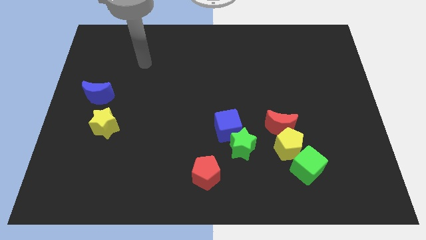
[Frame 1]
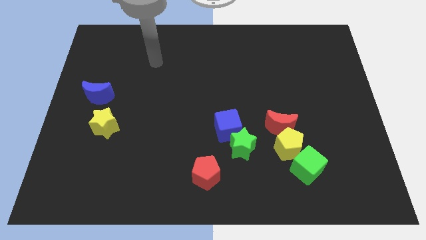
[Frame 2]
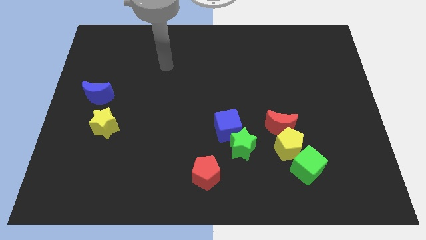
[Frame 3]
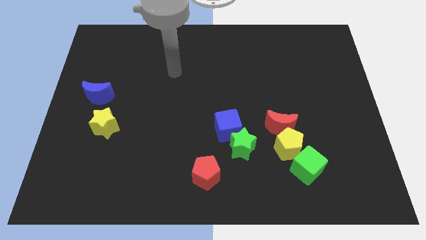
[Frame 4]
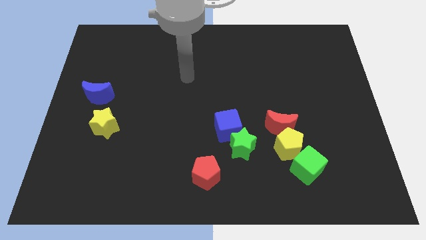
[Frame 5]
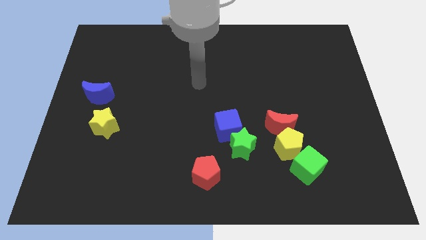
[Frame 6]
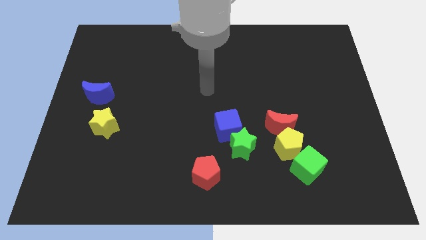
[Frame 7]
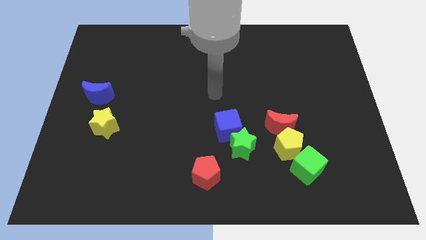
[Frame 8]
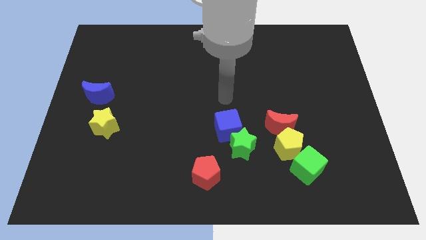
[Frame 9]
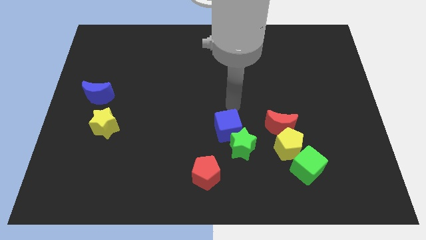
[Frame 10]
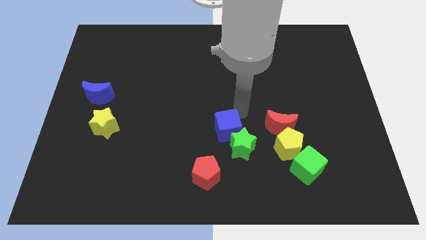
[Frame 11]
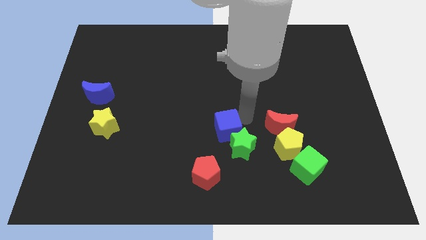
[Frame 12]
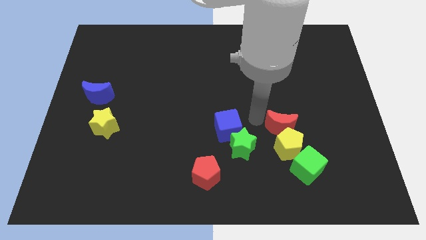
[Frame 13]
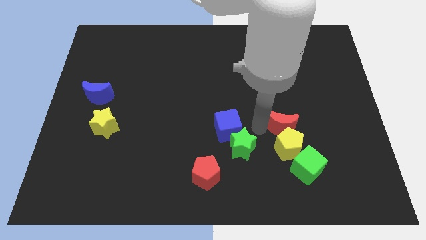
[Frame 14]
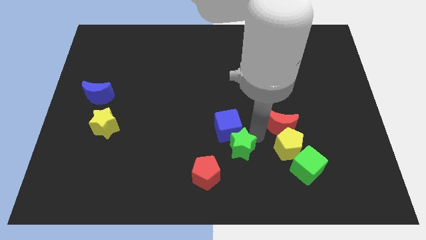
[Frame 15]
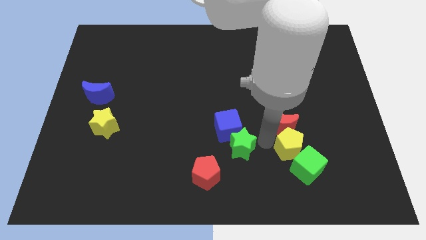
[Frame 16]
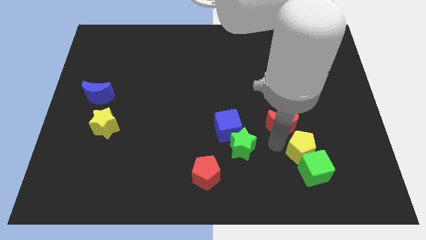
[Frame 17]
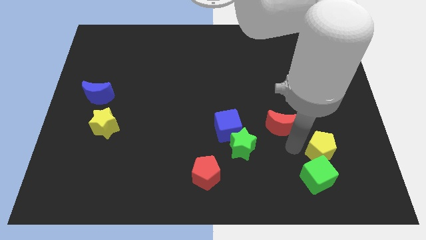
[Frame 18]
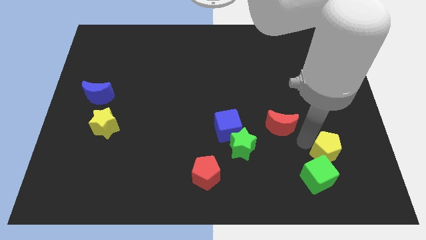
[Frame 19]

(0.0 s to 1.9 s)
pull the red moon apart from the yellow pentagon

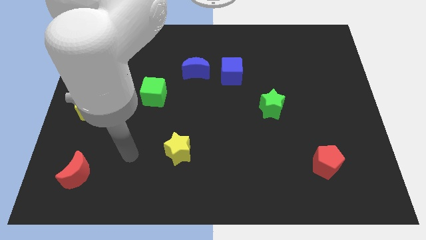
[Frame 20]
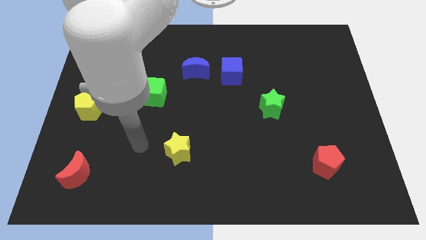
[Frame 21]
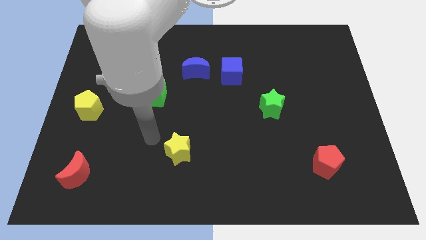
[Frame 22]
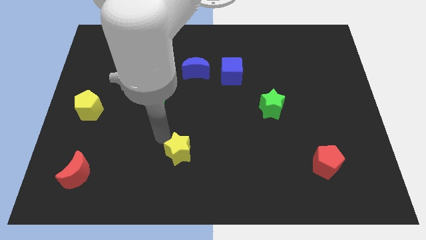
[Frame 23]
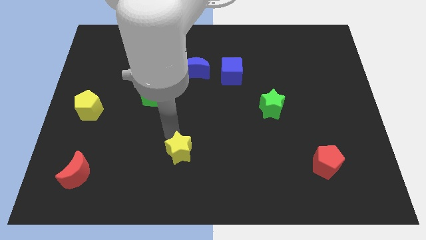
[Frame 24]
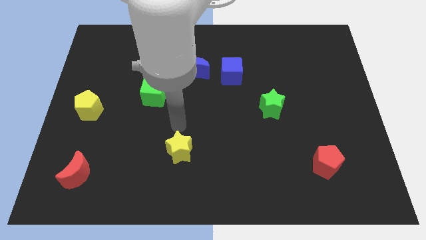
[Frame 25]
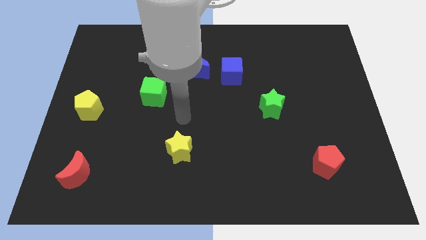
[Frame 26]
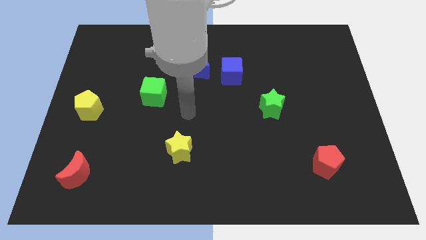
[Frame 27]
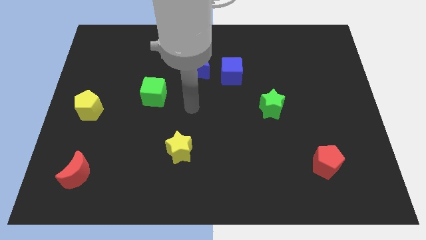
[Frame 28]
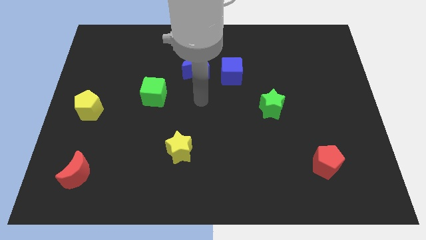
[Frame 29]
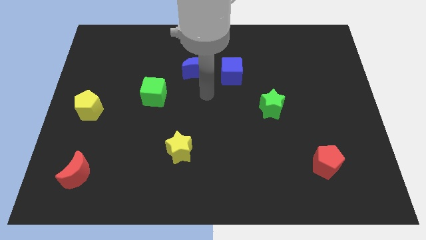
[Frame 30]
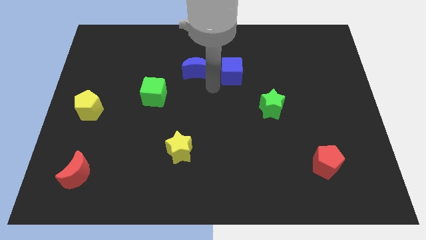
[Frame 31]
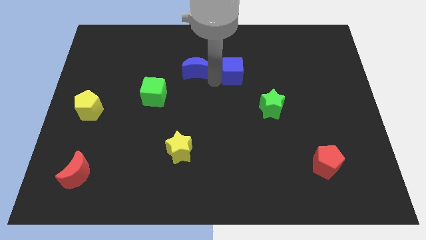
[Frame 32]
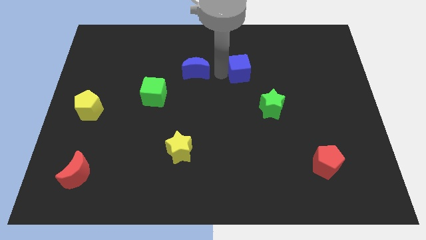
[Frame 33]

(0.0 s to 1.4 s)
separate the blue moon from the blue cube

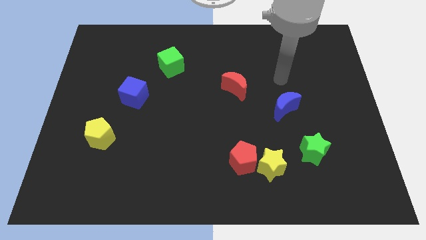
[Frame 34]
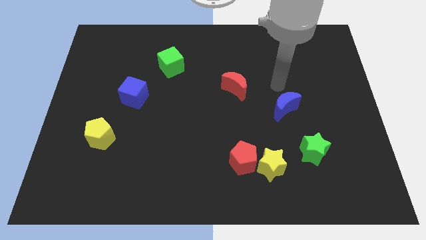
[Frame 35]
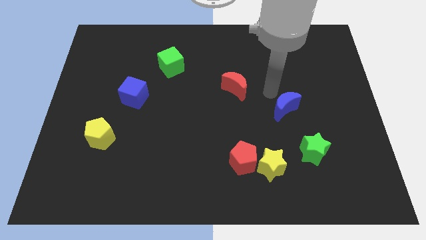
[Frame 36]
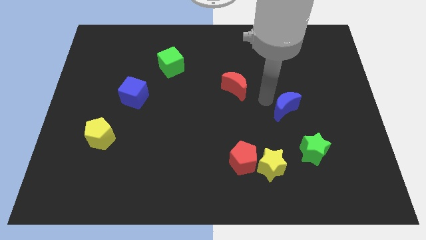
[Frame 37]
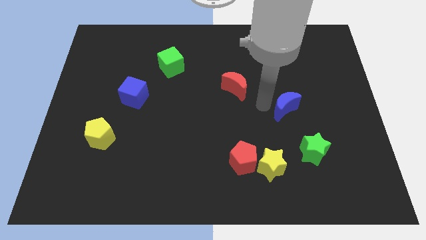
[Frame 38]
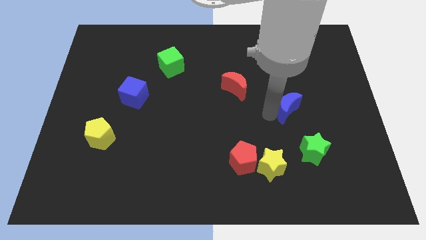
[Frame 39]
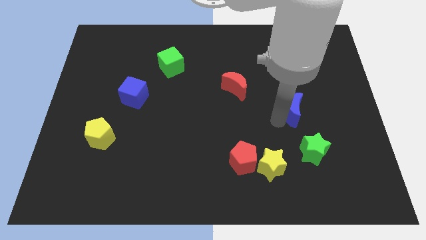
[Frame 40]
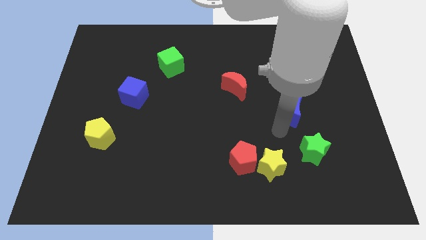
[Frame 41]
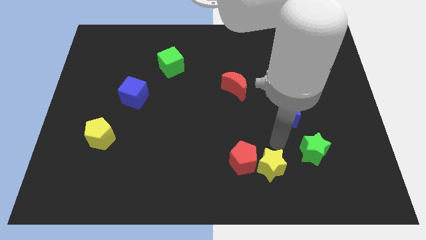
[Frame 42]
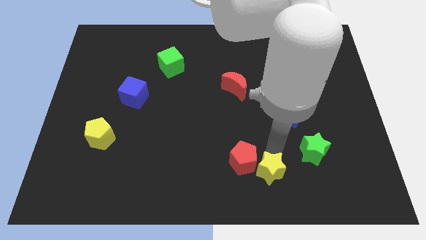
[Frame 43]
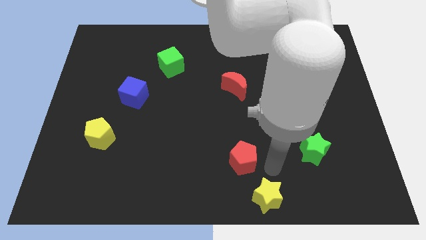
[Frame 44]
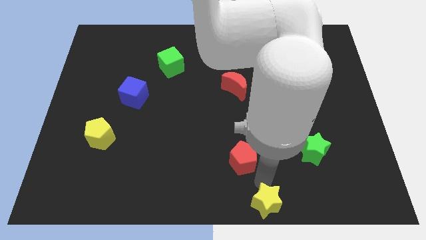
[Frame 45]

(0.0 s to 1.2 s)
pull the red pentagon apart from the yellow star

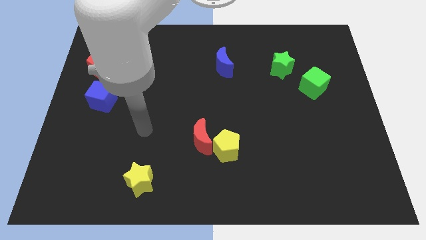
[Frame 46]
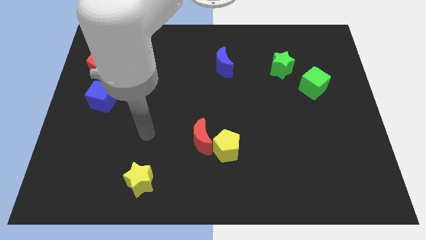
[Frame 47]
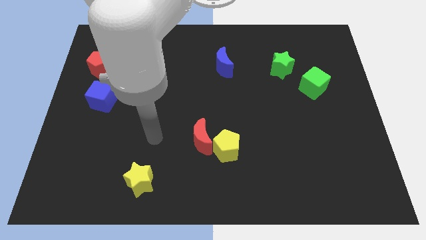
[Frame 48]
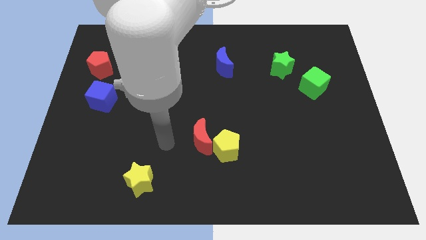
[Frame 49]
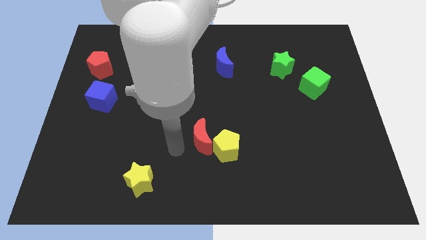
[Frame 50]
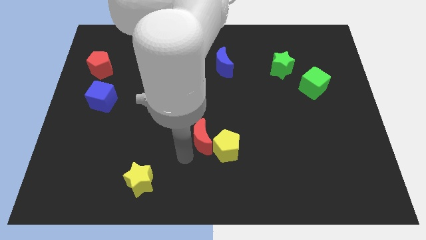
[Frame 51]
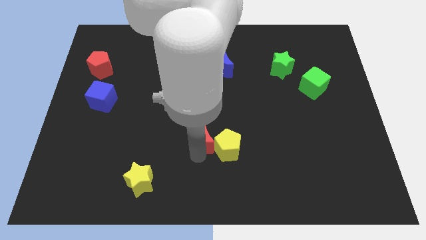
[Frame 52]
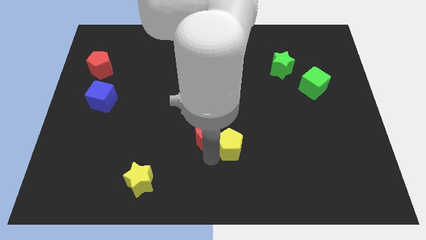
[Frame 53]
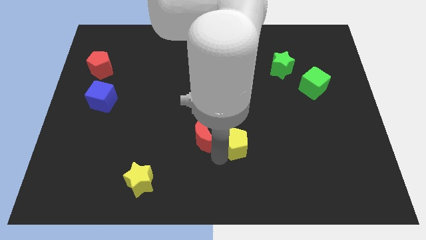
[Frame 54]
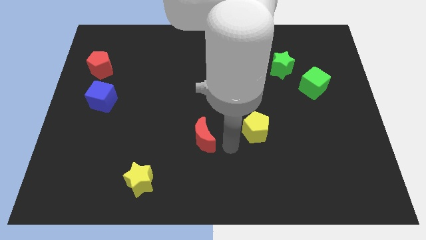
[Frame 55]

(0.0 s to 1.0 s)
separate the red moon from the yellow pentagon

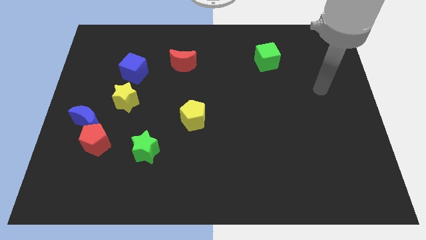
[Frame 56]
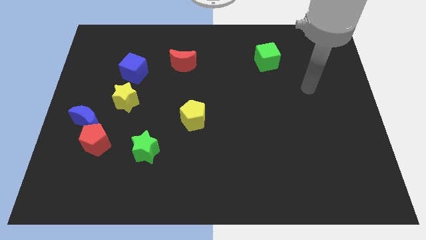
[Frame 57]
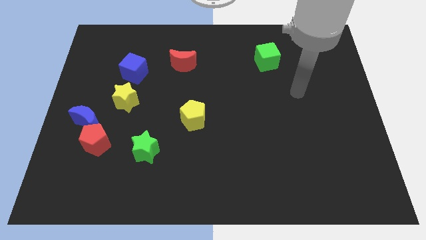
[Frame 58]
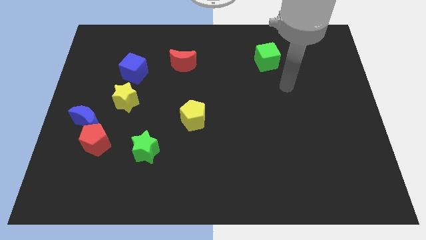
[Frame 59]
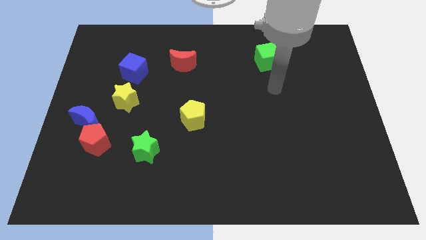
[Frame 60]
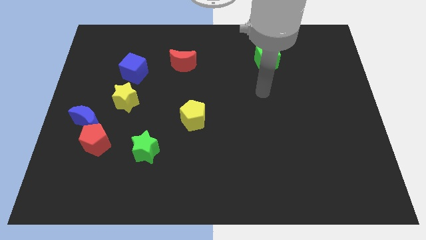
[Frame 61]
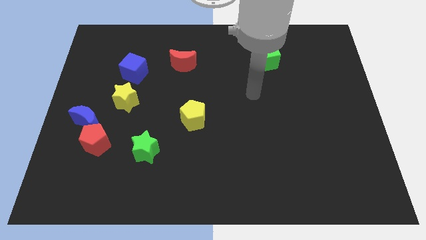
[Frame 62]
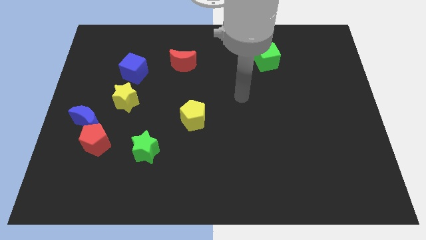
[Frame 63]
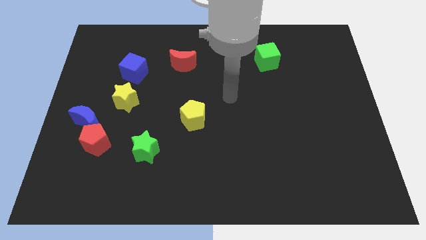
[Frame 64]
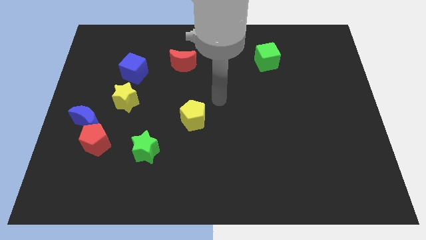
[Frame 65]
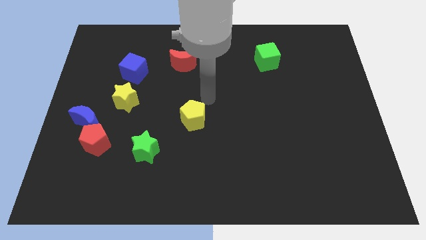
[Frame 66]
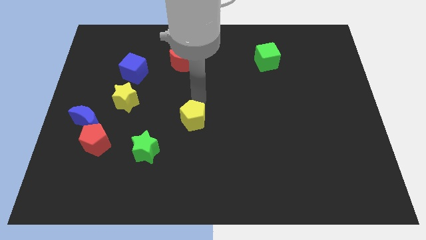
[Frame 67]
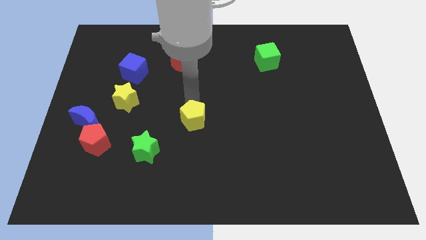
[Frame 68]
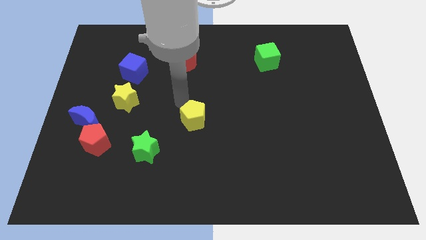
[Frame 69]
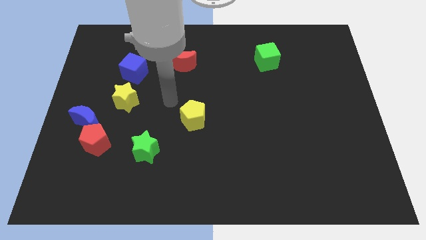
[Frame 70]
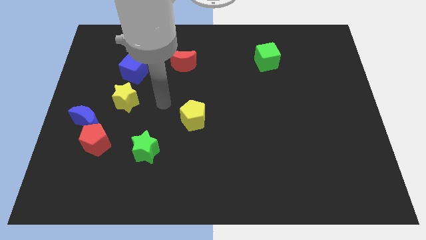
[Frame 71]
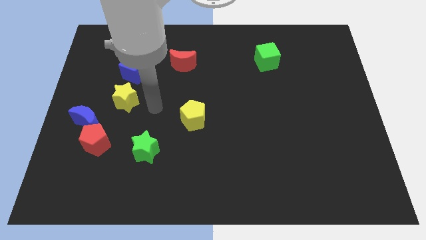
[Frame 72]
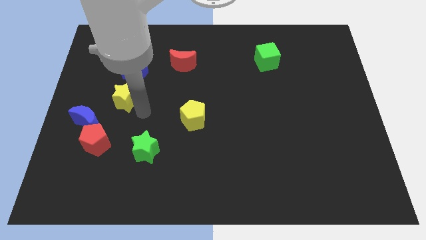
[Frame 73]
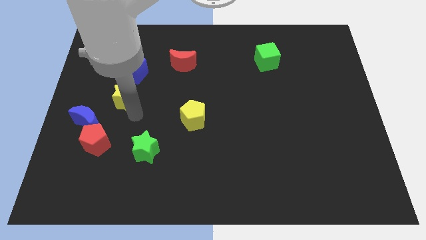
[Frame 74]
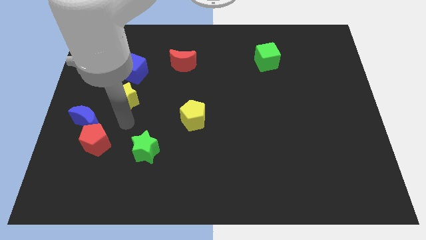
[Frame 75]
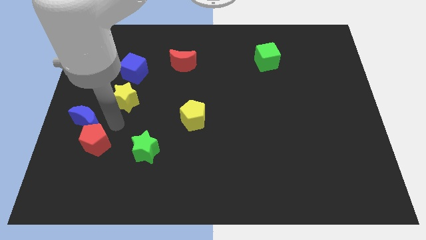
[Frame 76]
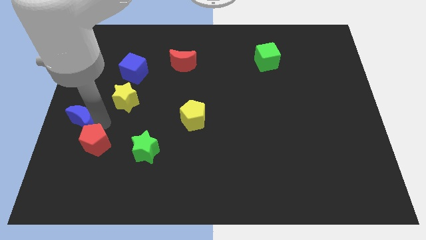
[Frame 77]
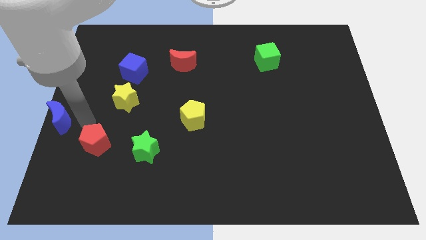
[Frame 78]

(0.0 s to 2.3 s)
separate the red pentagon from the blue moon

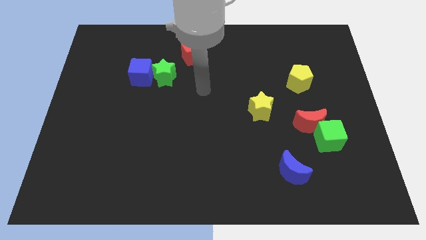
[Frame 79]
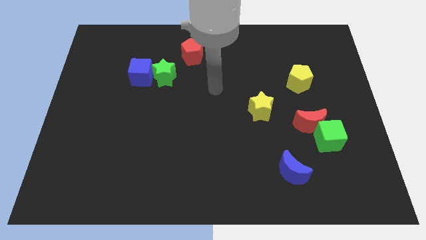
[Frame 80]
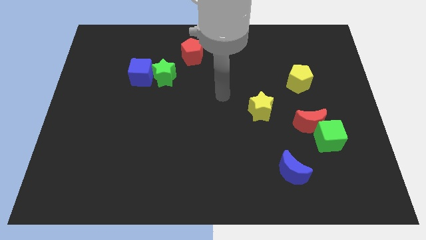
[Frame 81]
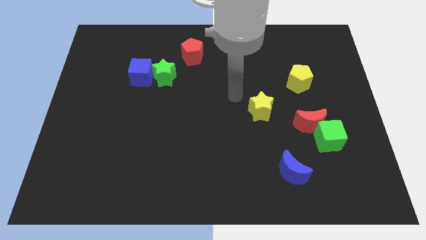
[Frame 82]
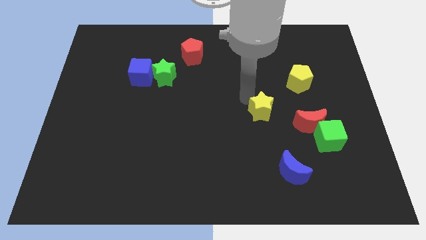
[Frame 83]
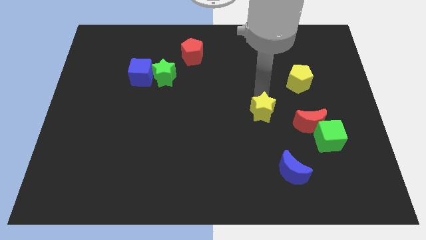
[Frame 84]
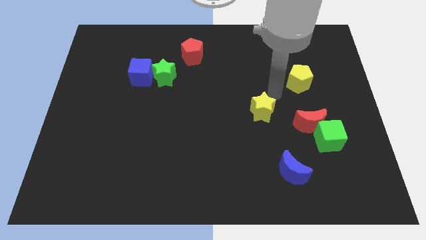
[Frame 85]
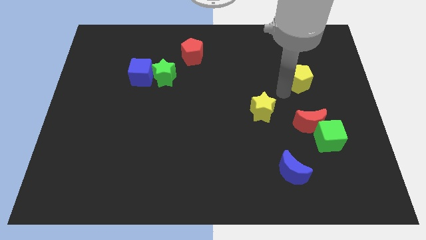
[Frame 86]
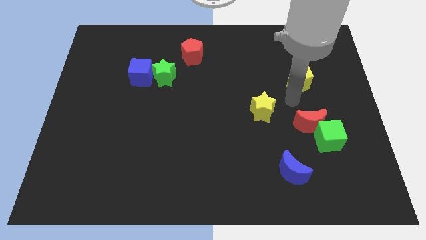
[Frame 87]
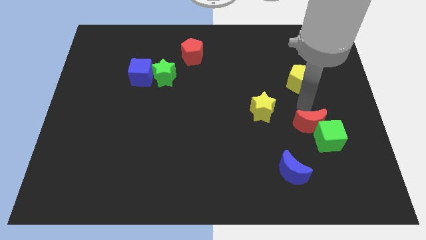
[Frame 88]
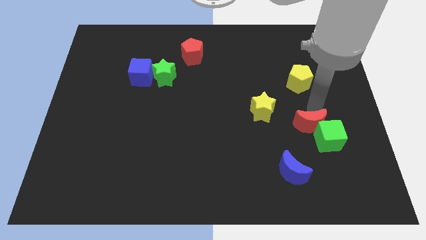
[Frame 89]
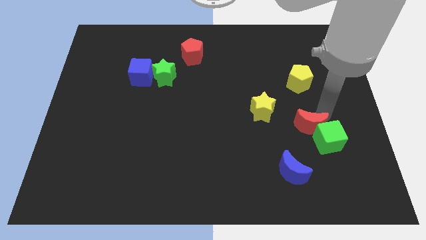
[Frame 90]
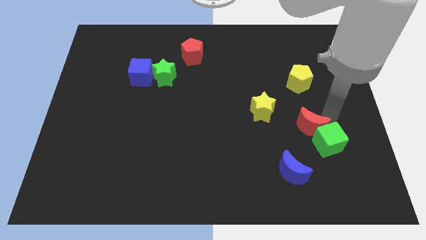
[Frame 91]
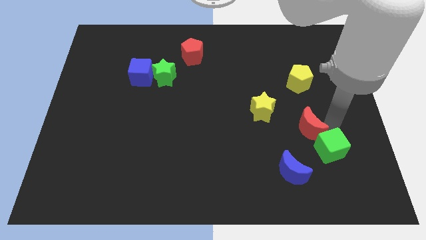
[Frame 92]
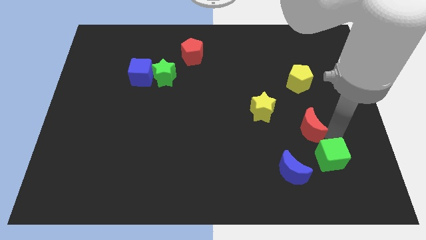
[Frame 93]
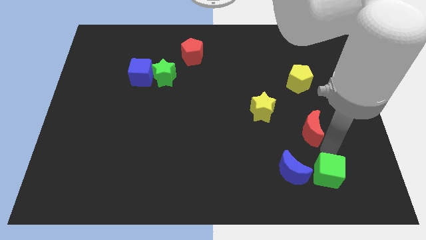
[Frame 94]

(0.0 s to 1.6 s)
separate the red moon from the green cube
